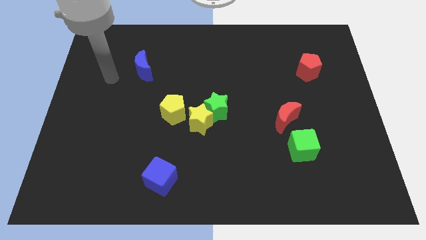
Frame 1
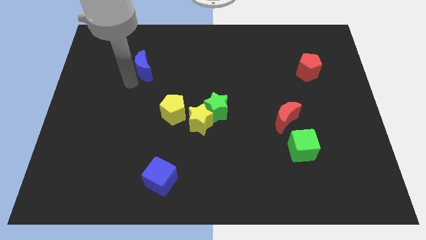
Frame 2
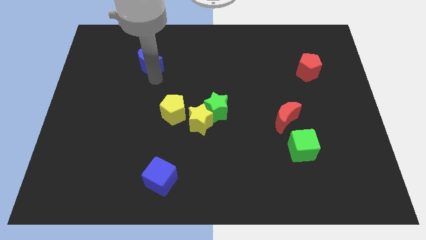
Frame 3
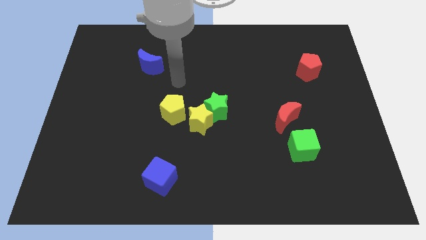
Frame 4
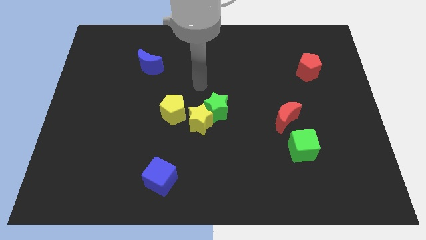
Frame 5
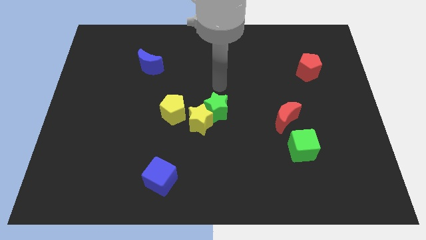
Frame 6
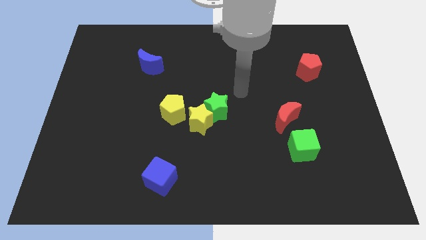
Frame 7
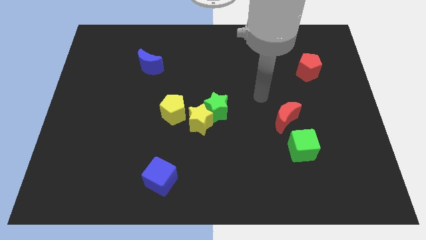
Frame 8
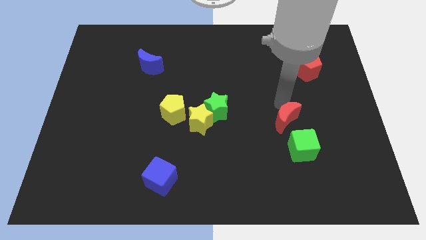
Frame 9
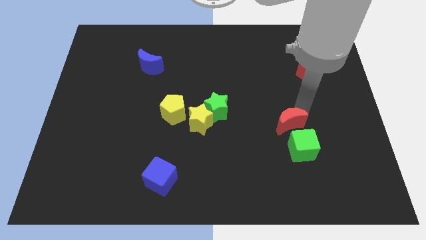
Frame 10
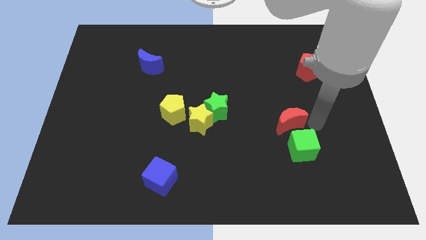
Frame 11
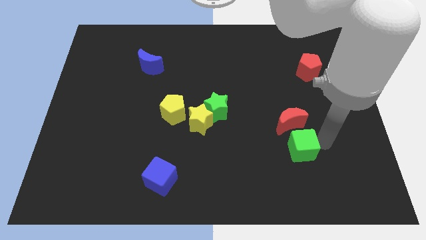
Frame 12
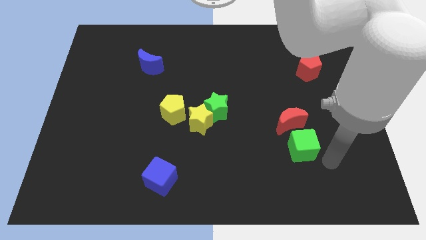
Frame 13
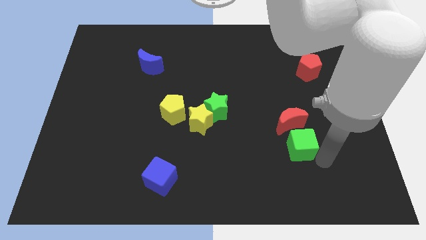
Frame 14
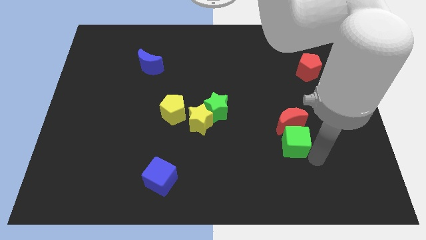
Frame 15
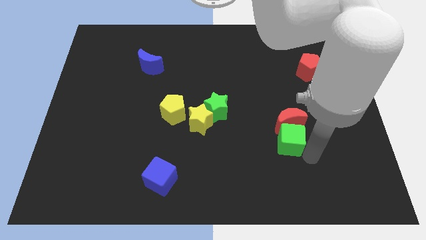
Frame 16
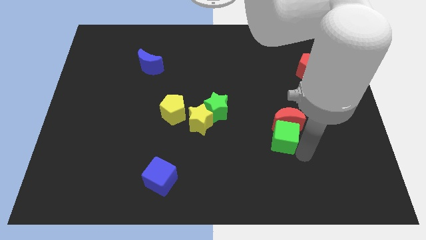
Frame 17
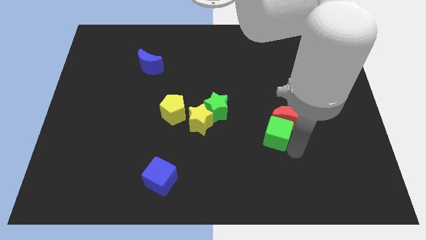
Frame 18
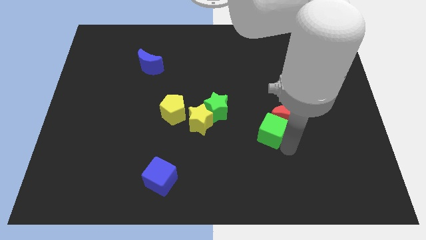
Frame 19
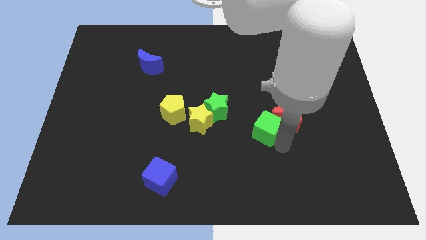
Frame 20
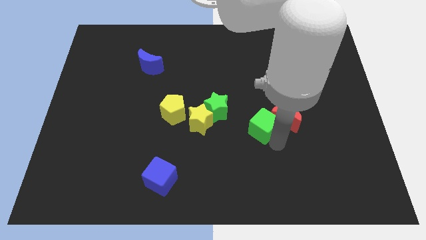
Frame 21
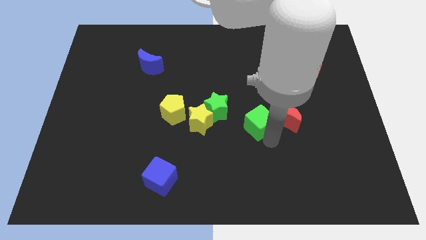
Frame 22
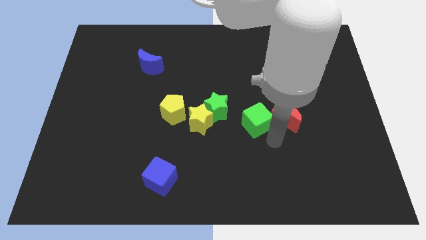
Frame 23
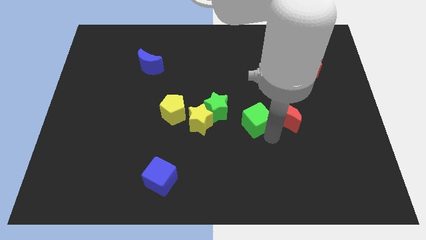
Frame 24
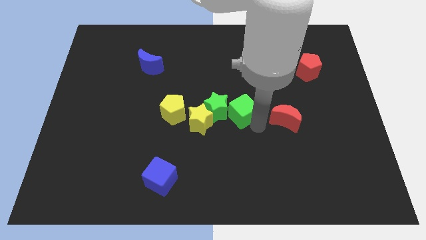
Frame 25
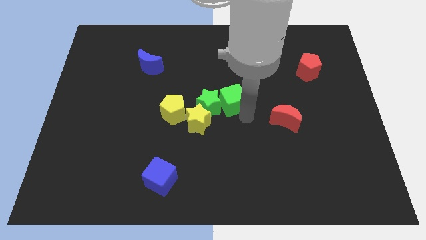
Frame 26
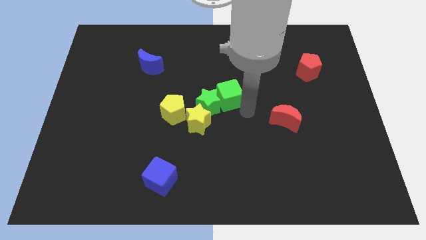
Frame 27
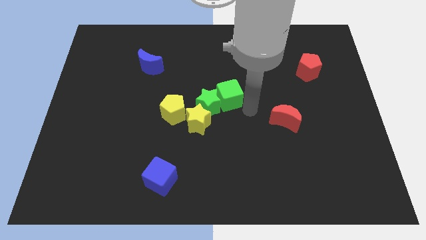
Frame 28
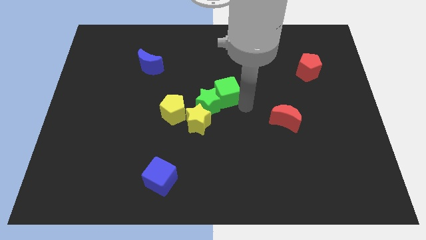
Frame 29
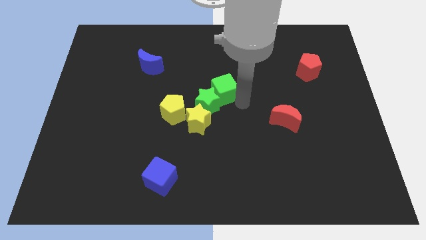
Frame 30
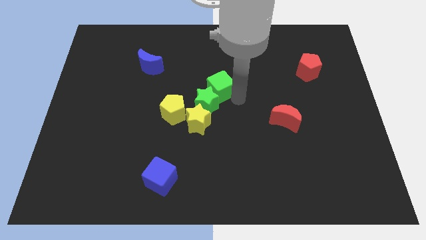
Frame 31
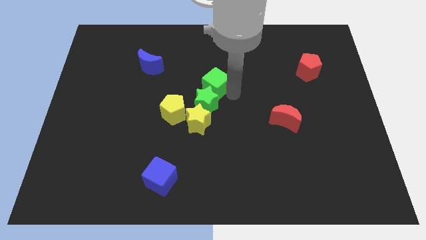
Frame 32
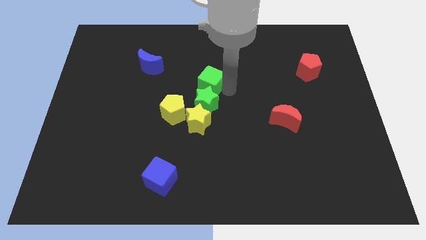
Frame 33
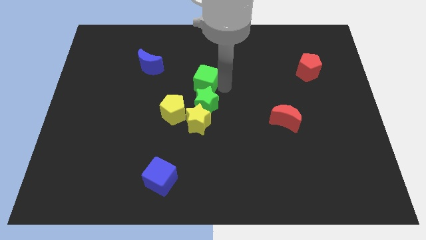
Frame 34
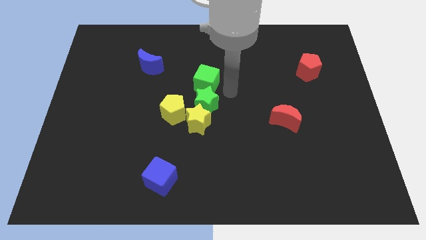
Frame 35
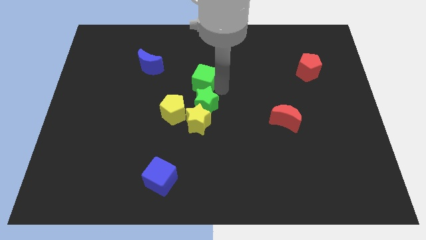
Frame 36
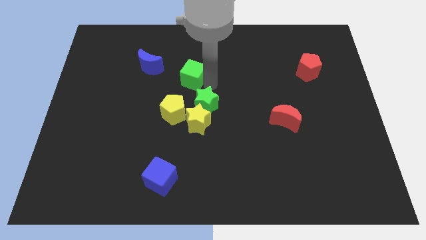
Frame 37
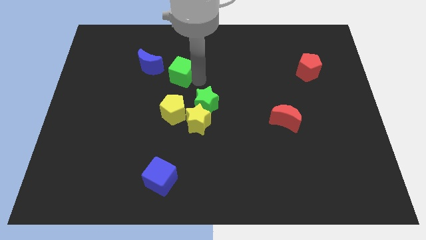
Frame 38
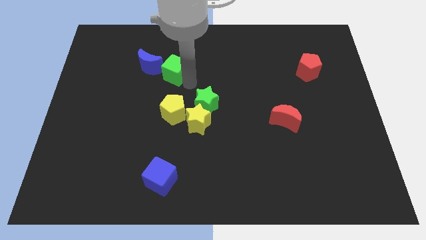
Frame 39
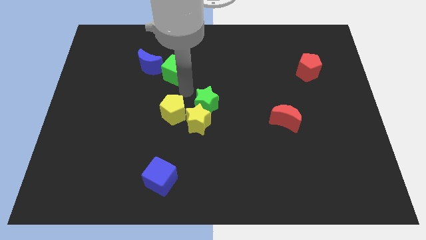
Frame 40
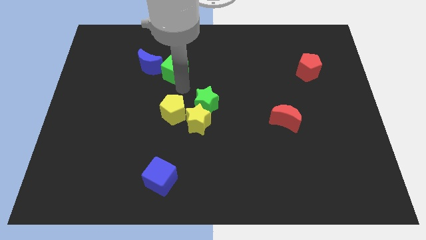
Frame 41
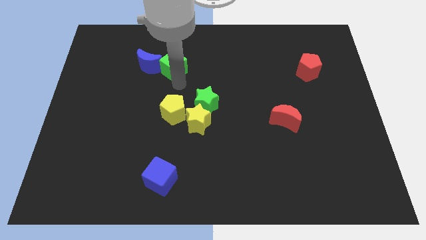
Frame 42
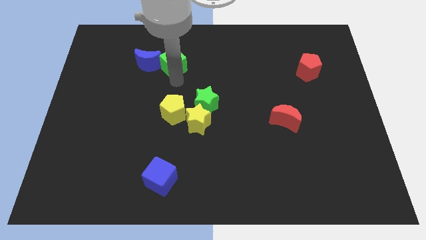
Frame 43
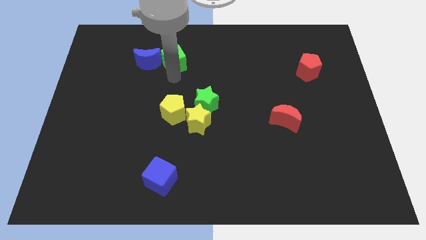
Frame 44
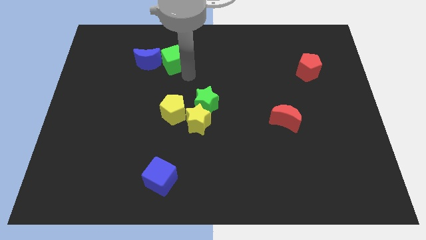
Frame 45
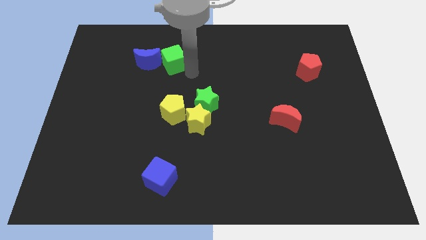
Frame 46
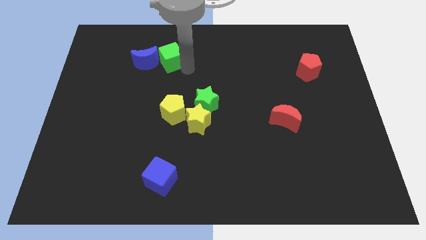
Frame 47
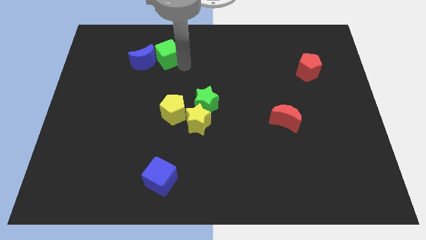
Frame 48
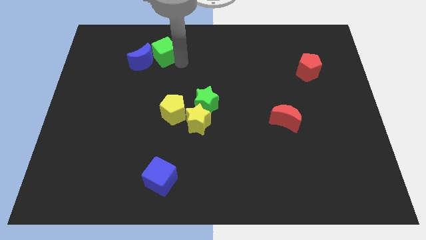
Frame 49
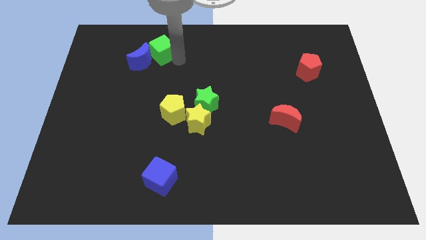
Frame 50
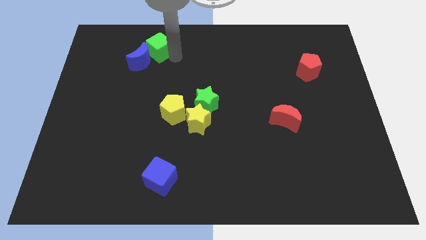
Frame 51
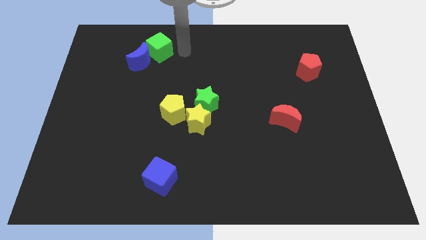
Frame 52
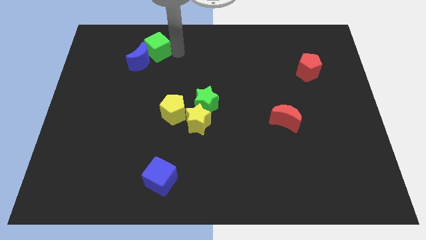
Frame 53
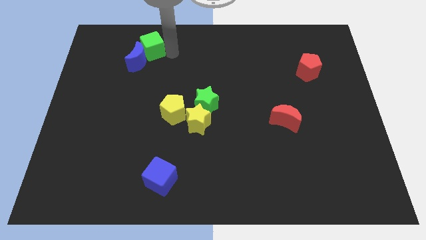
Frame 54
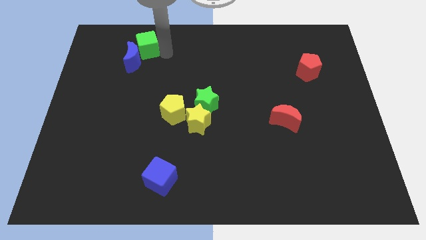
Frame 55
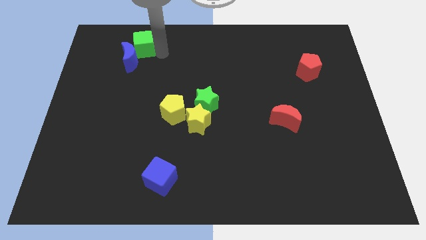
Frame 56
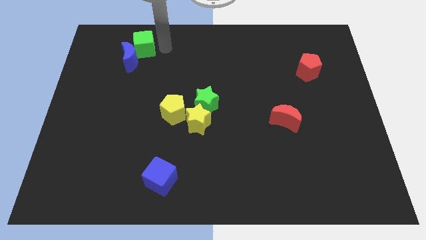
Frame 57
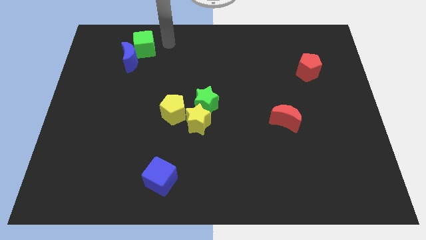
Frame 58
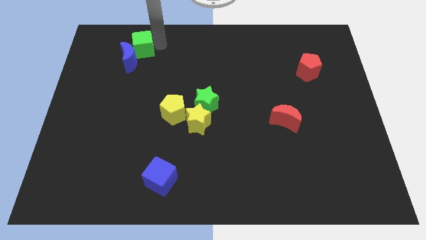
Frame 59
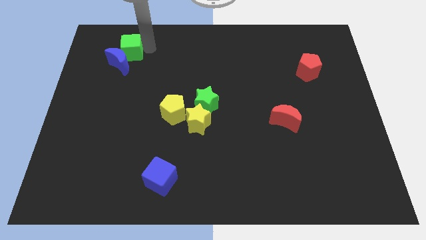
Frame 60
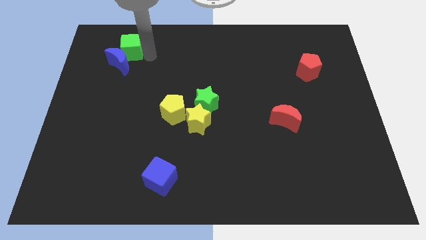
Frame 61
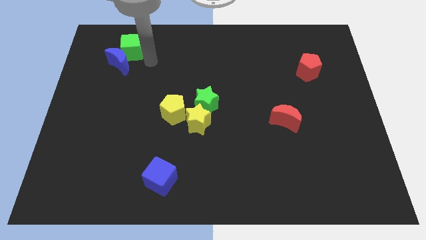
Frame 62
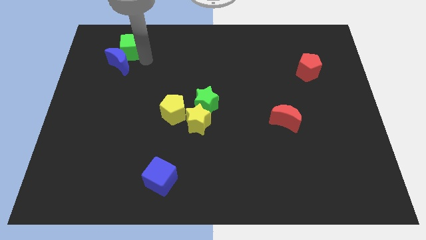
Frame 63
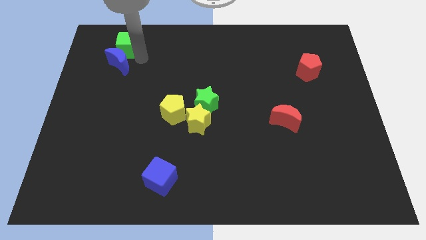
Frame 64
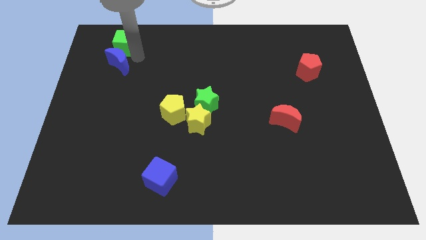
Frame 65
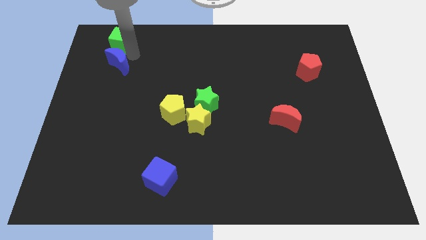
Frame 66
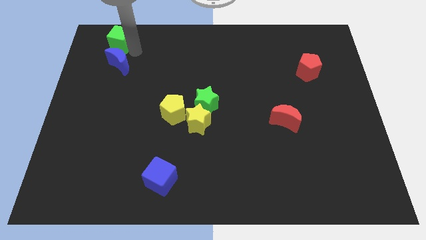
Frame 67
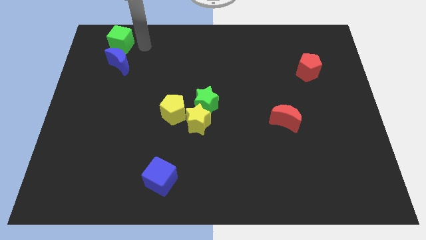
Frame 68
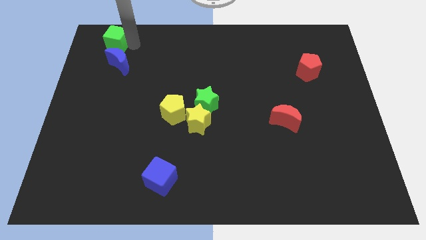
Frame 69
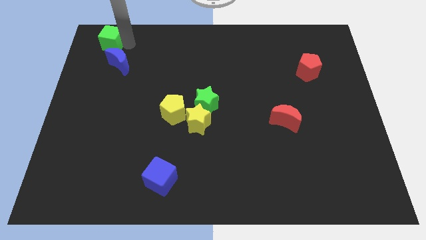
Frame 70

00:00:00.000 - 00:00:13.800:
put the green cube to the upper left corner
